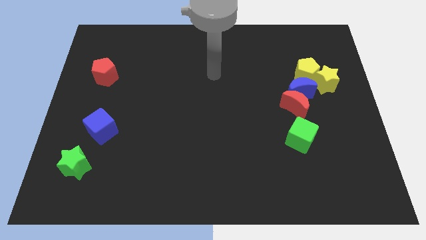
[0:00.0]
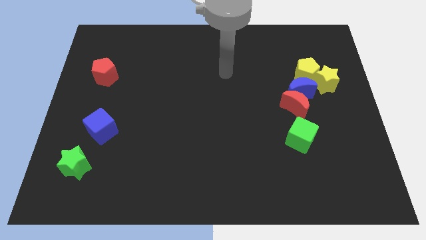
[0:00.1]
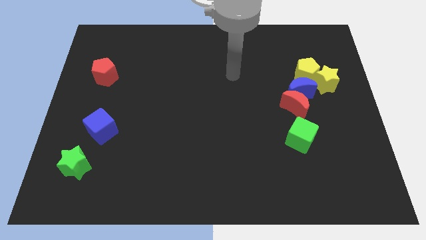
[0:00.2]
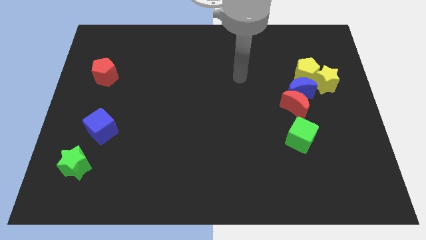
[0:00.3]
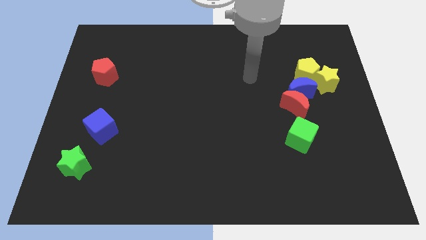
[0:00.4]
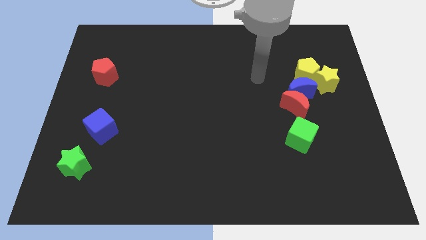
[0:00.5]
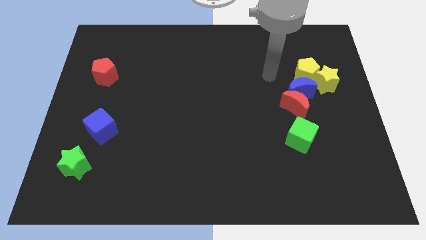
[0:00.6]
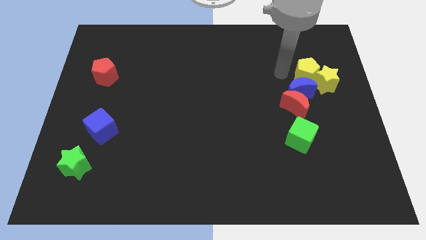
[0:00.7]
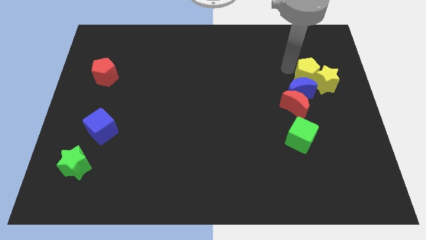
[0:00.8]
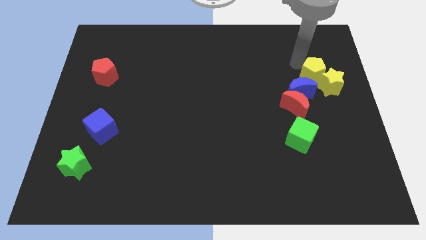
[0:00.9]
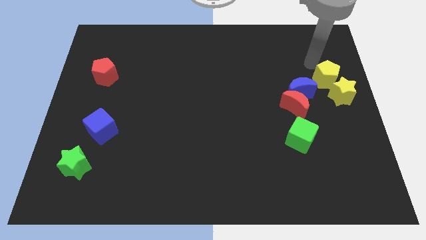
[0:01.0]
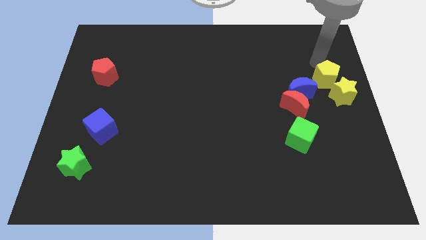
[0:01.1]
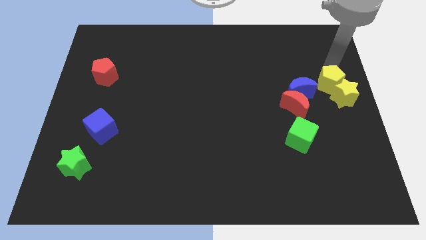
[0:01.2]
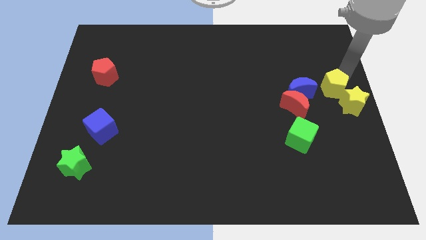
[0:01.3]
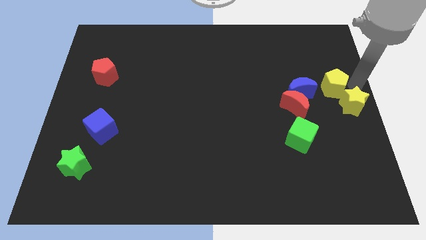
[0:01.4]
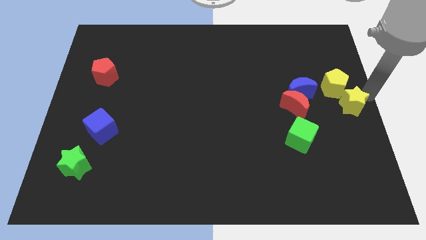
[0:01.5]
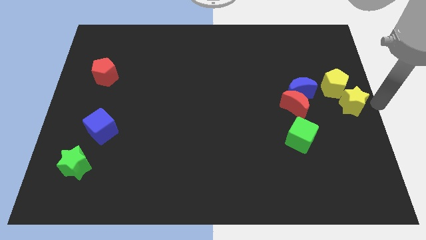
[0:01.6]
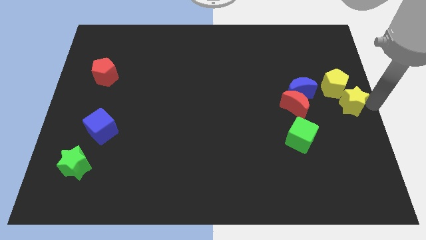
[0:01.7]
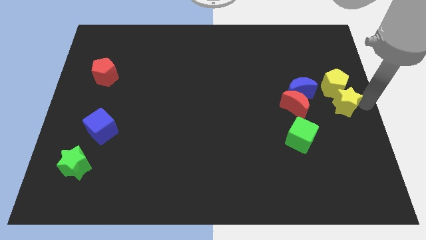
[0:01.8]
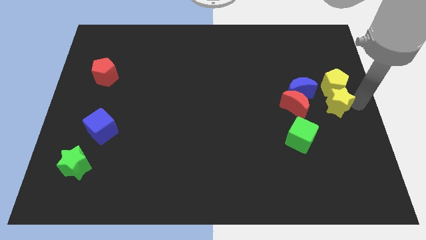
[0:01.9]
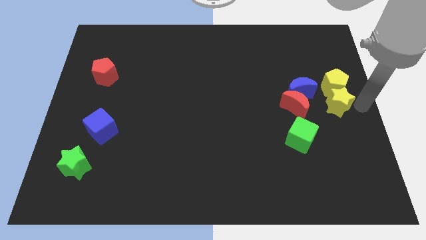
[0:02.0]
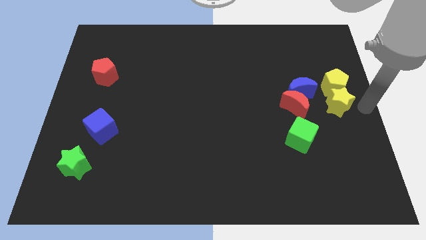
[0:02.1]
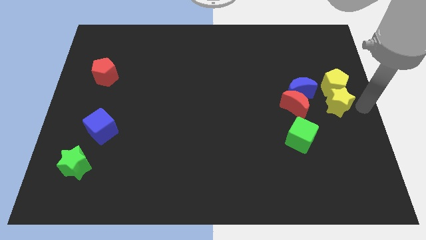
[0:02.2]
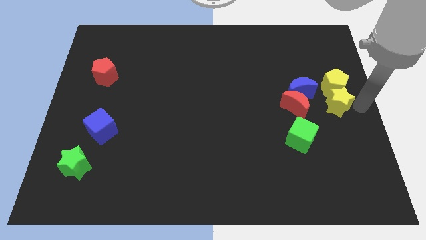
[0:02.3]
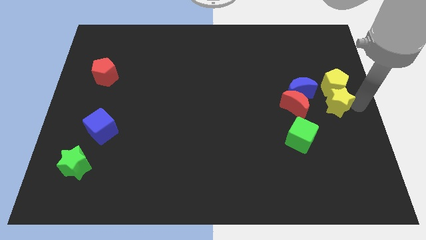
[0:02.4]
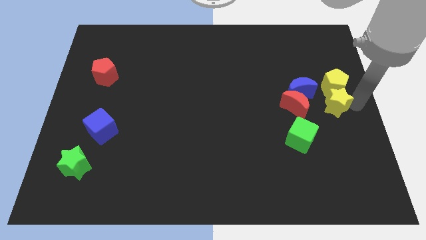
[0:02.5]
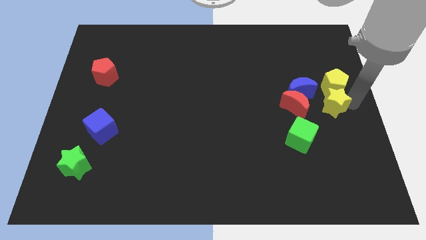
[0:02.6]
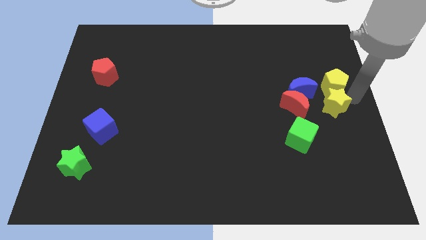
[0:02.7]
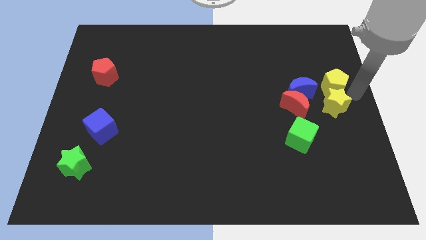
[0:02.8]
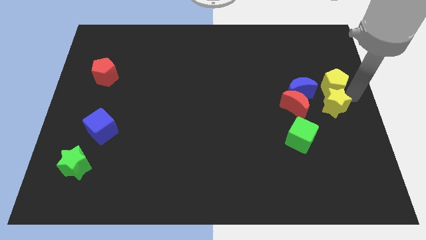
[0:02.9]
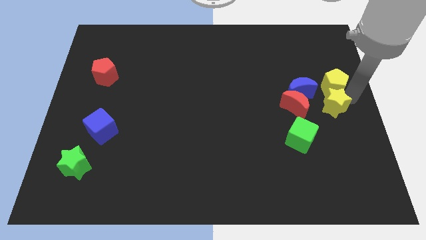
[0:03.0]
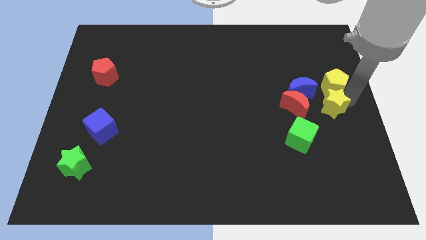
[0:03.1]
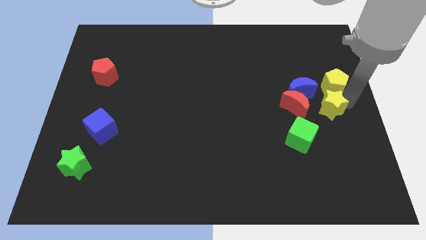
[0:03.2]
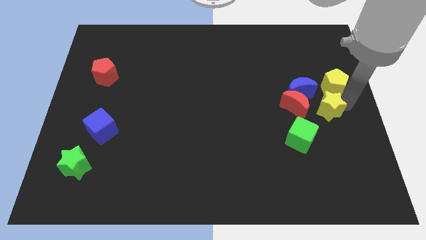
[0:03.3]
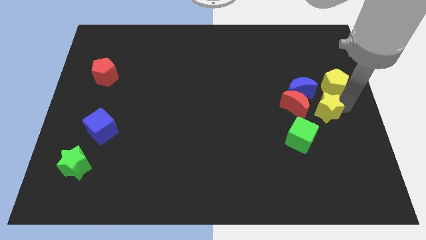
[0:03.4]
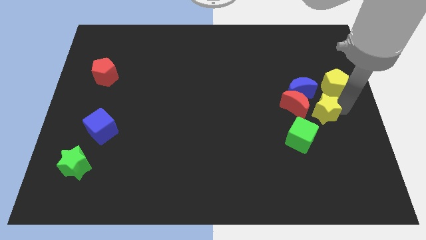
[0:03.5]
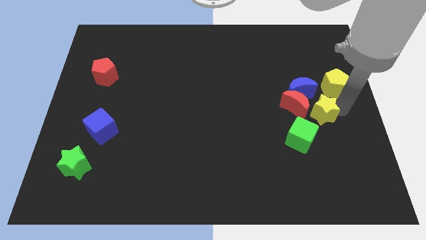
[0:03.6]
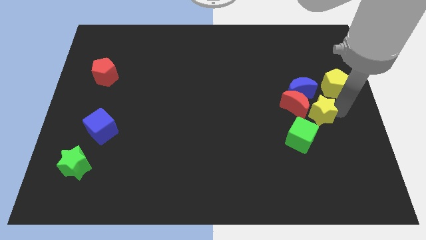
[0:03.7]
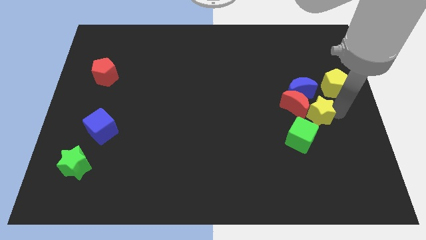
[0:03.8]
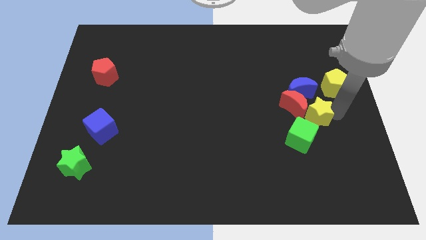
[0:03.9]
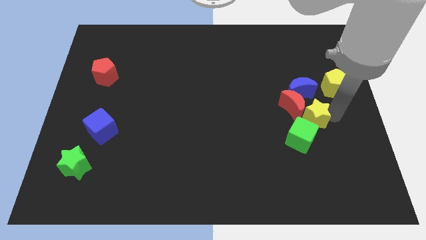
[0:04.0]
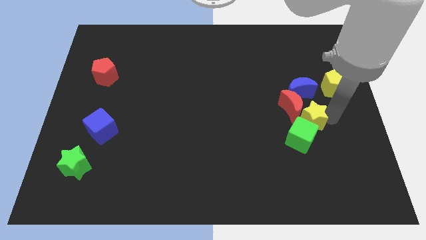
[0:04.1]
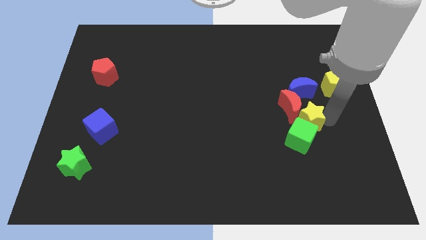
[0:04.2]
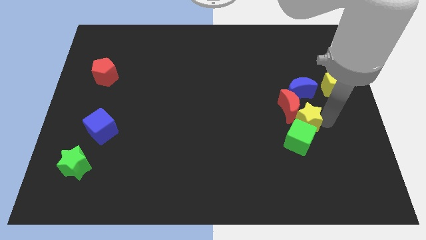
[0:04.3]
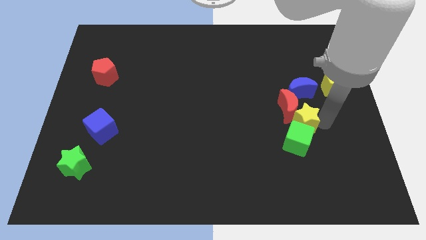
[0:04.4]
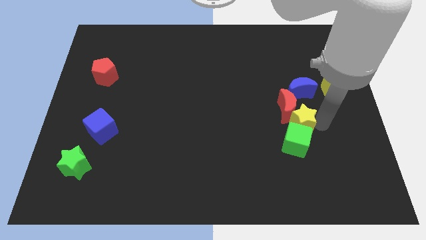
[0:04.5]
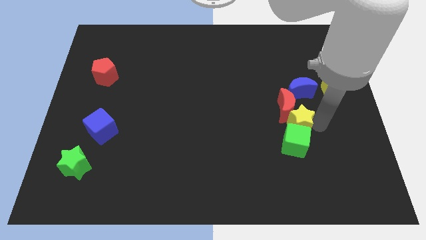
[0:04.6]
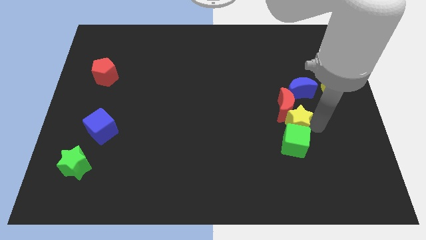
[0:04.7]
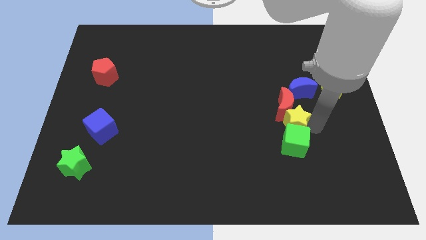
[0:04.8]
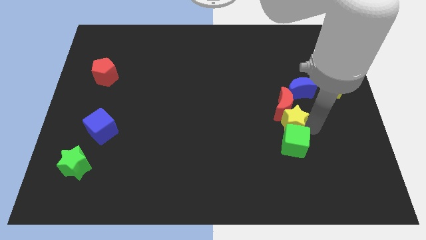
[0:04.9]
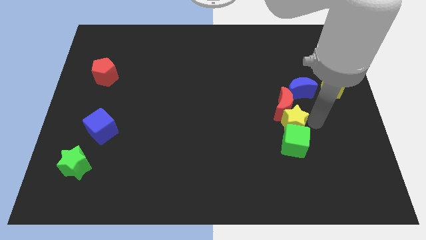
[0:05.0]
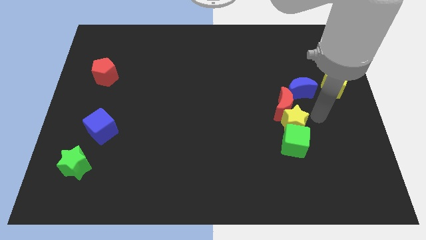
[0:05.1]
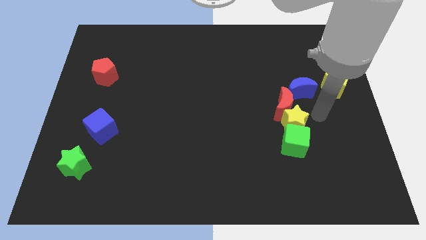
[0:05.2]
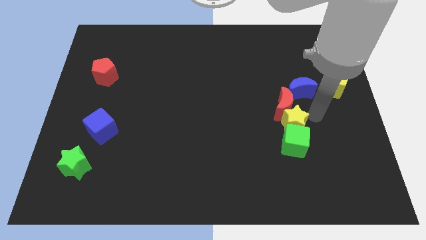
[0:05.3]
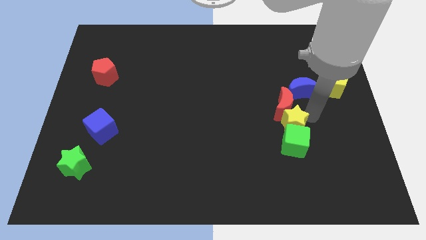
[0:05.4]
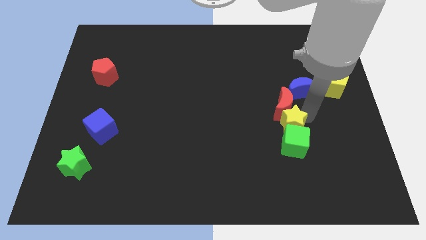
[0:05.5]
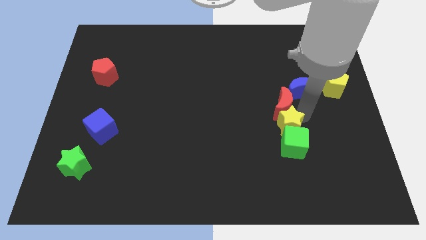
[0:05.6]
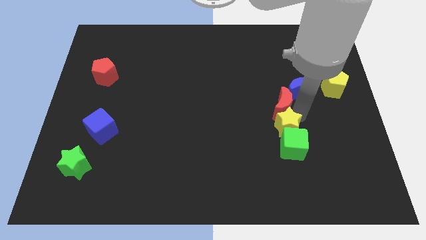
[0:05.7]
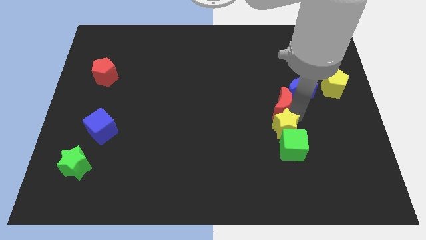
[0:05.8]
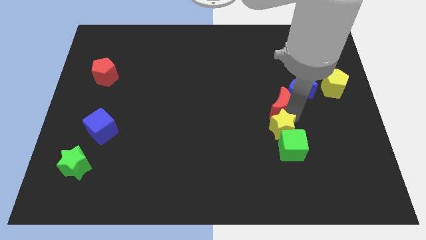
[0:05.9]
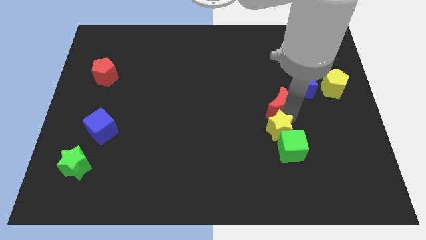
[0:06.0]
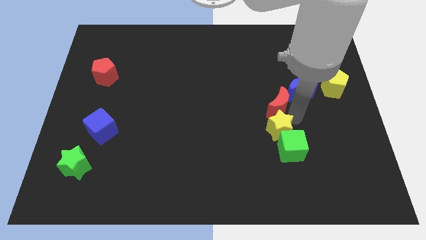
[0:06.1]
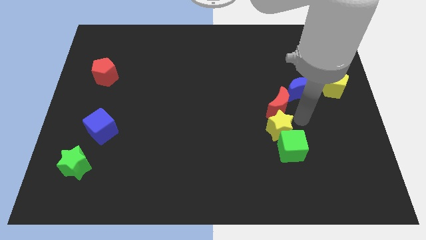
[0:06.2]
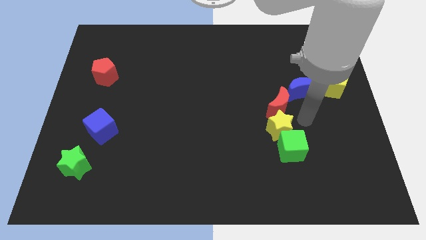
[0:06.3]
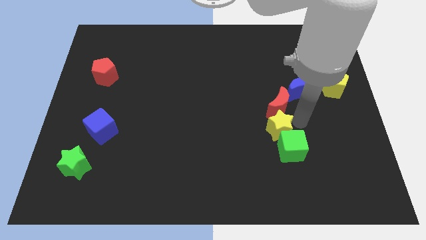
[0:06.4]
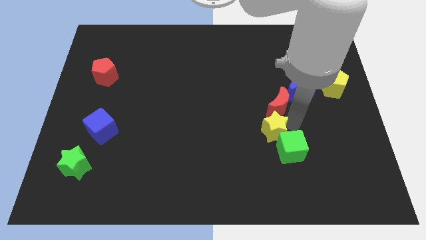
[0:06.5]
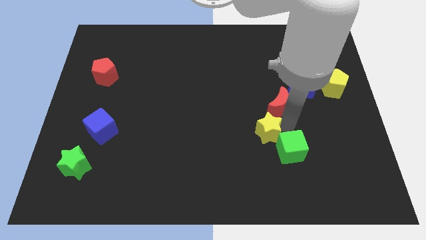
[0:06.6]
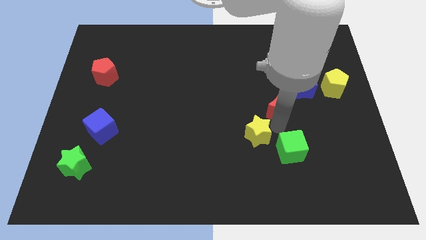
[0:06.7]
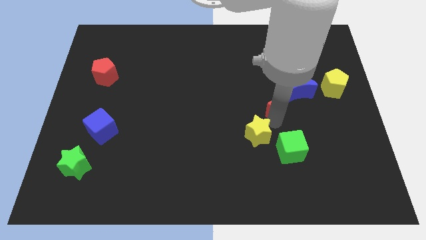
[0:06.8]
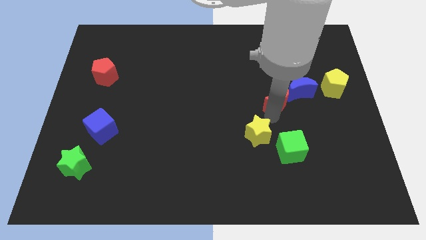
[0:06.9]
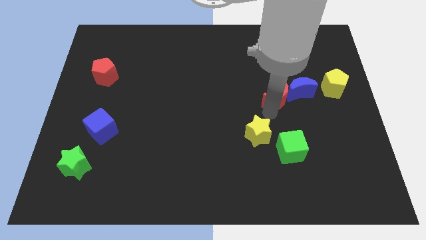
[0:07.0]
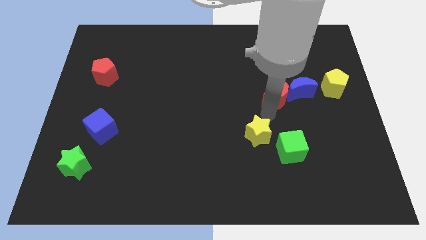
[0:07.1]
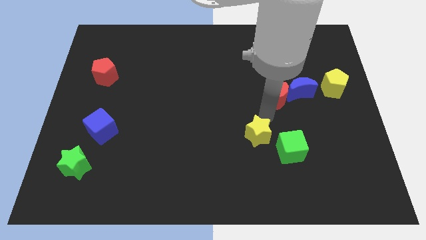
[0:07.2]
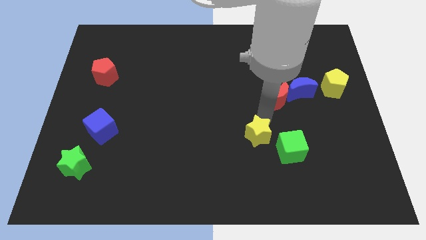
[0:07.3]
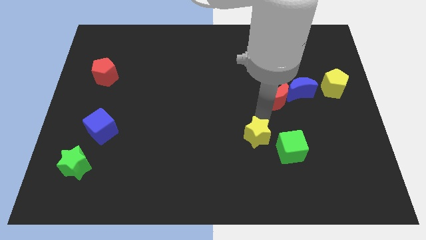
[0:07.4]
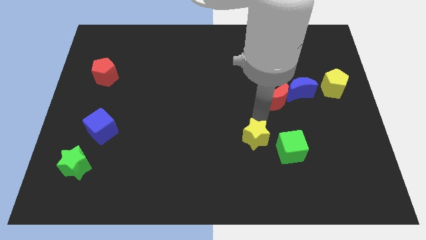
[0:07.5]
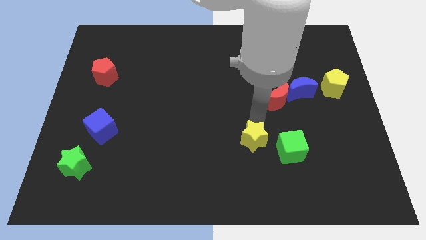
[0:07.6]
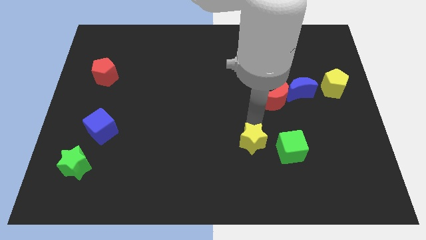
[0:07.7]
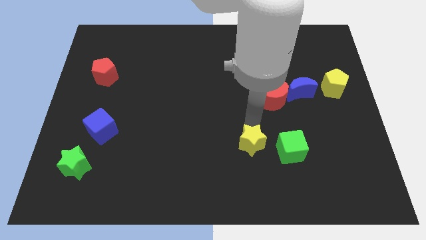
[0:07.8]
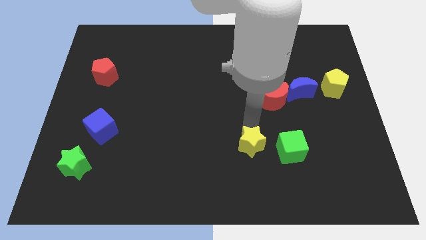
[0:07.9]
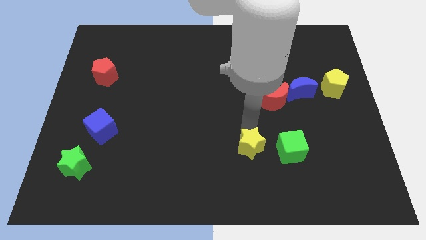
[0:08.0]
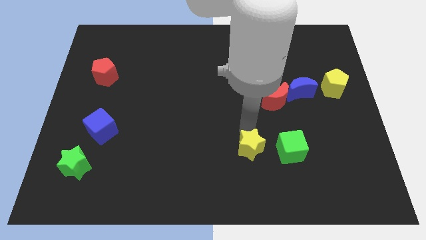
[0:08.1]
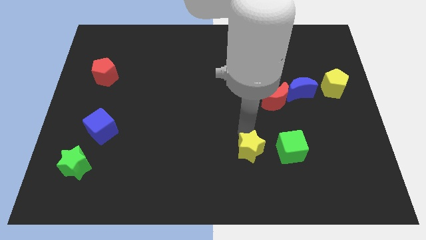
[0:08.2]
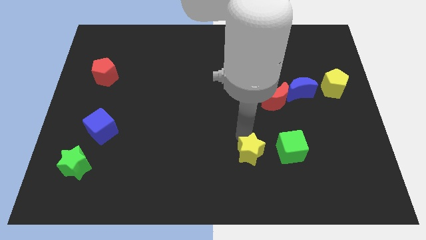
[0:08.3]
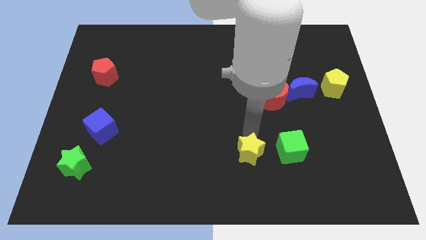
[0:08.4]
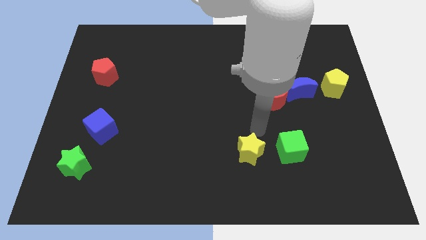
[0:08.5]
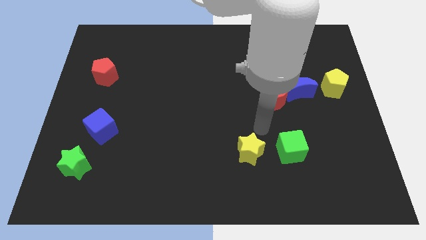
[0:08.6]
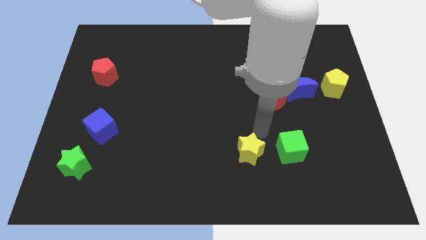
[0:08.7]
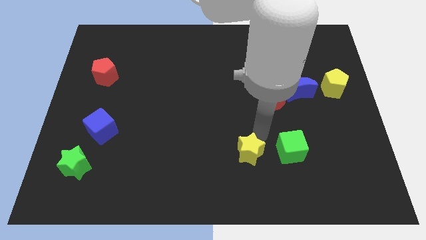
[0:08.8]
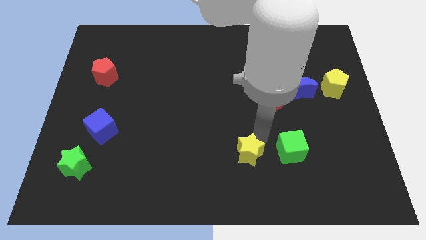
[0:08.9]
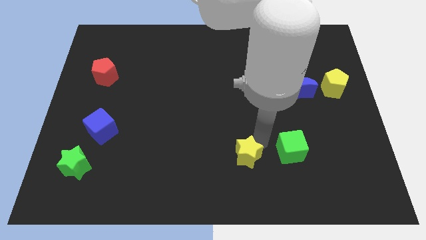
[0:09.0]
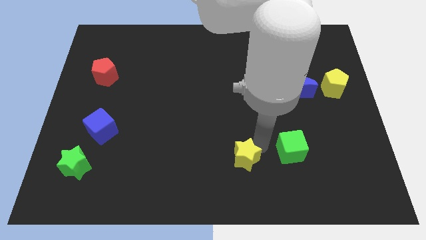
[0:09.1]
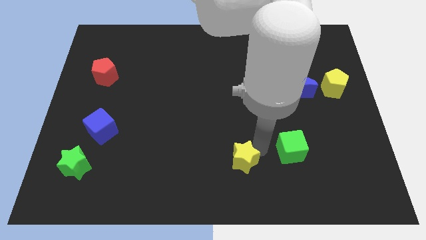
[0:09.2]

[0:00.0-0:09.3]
push the yellow star to the bottom side
